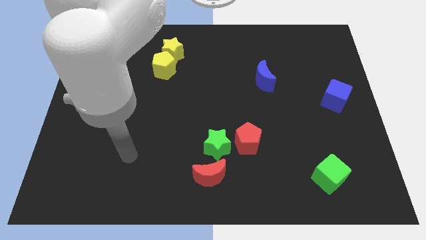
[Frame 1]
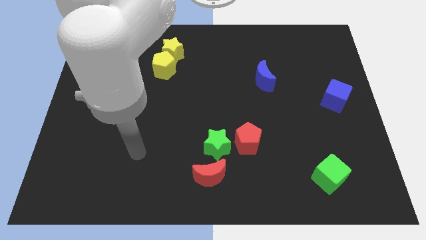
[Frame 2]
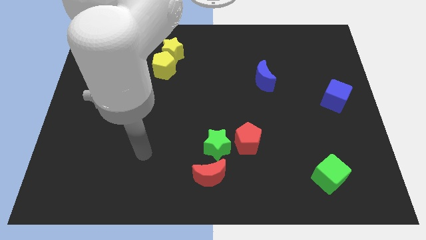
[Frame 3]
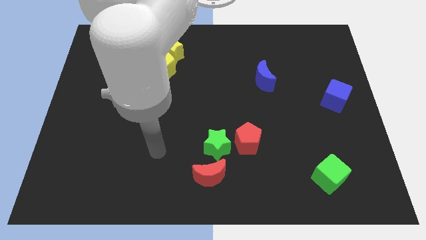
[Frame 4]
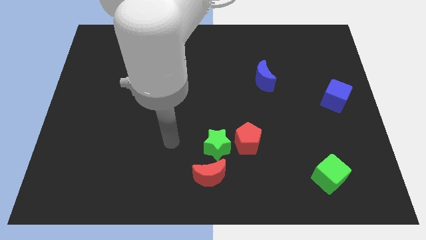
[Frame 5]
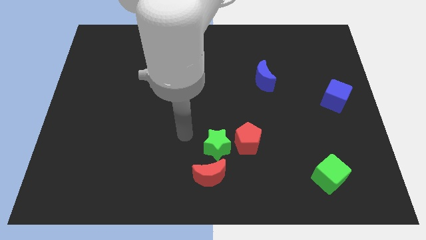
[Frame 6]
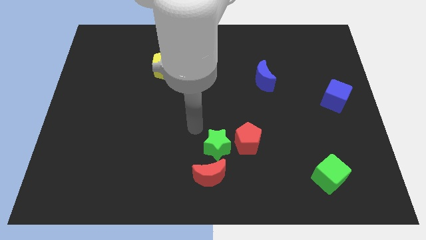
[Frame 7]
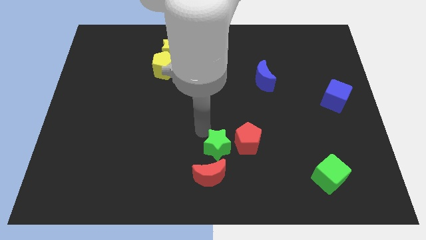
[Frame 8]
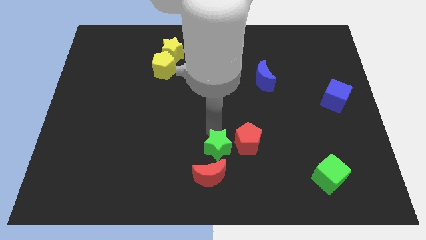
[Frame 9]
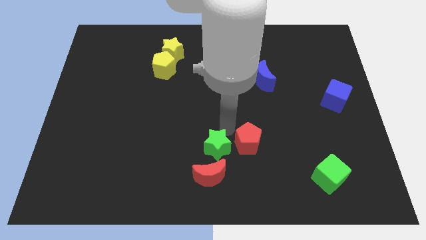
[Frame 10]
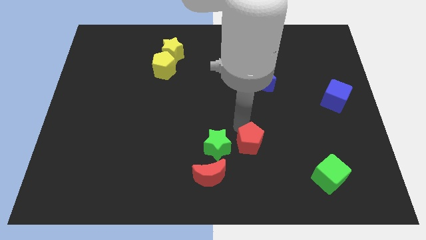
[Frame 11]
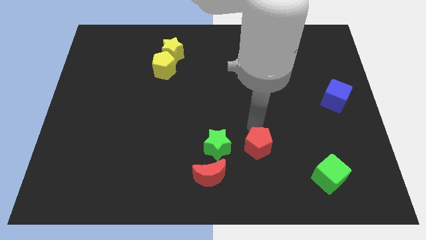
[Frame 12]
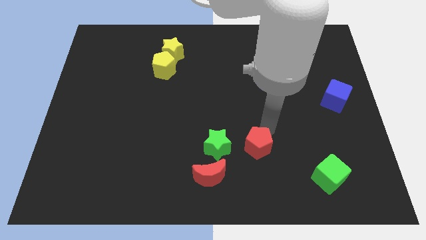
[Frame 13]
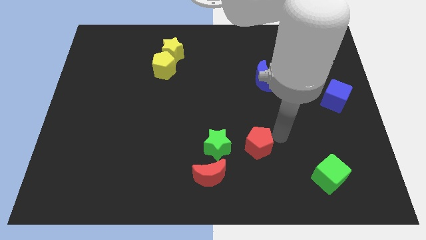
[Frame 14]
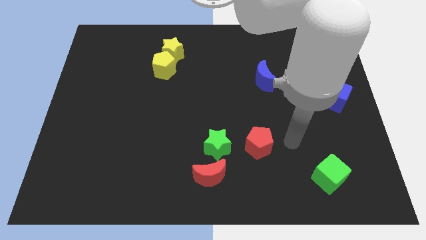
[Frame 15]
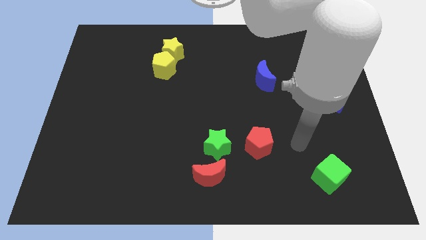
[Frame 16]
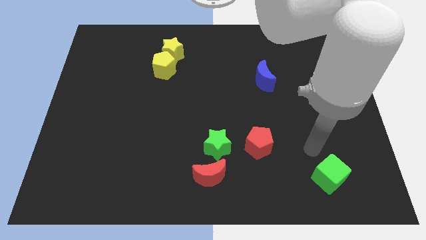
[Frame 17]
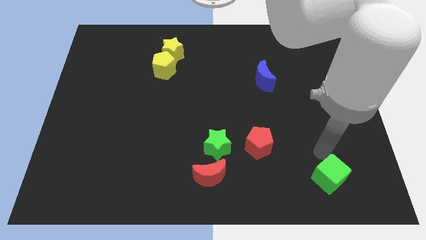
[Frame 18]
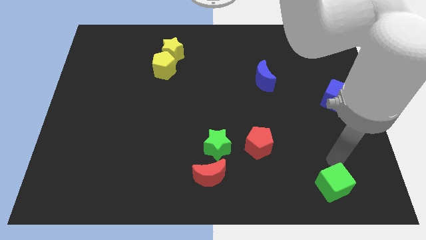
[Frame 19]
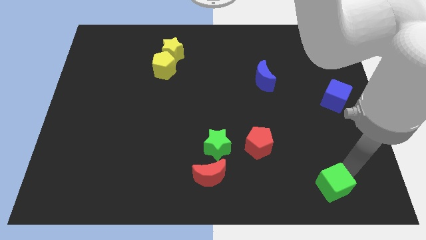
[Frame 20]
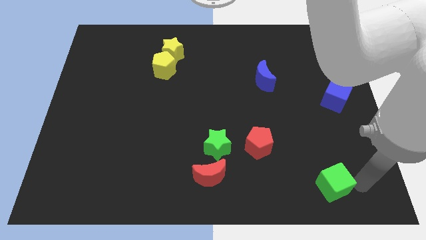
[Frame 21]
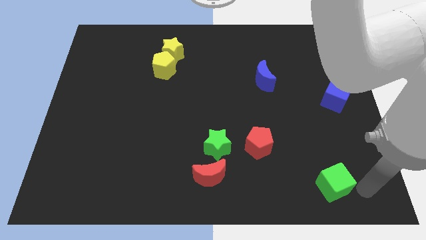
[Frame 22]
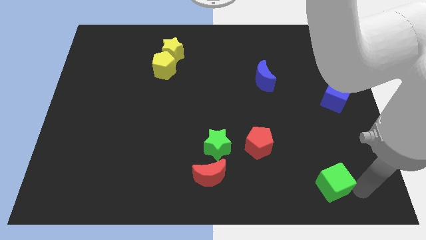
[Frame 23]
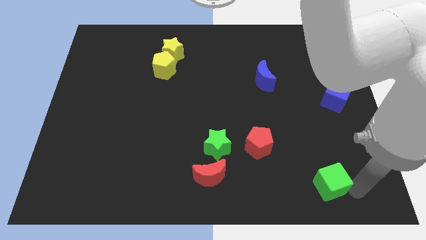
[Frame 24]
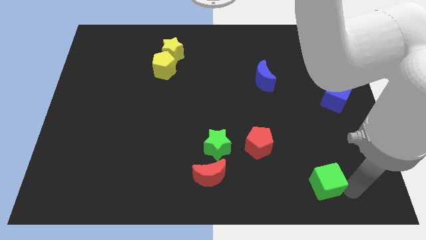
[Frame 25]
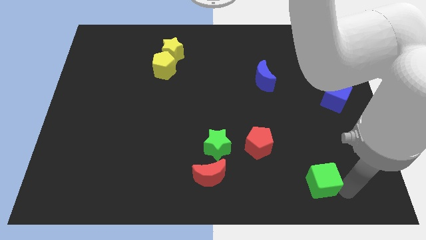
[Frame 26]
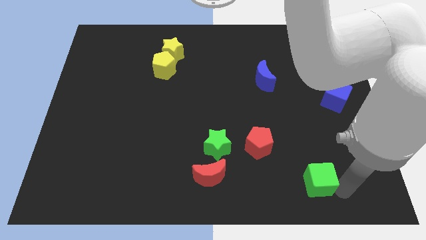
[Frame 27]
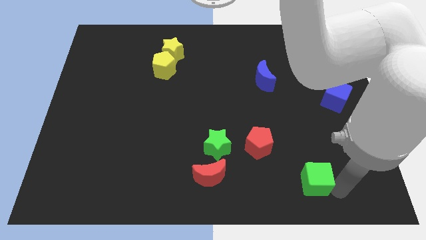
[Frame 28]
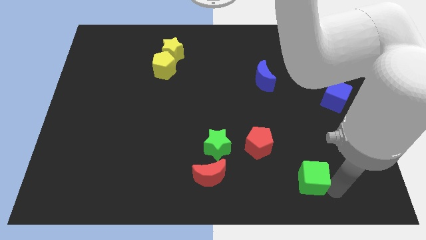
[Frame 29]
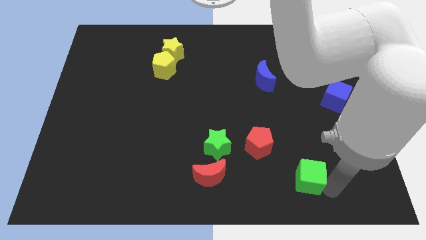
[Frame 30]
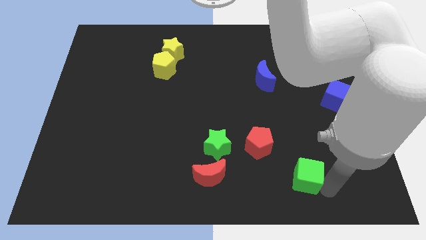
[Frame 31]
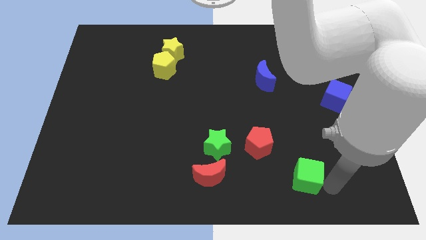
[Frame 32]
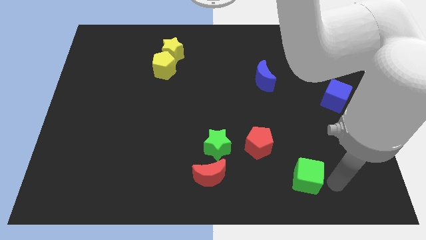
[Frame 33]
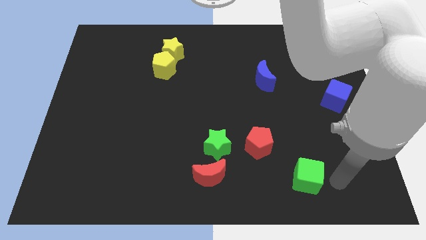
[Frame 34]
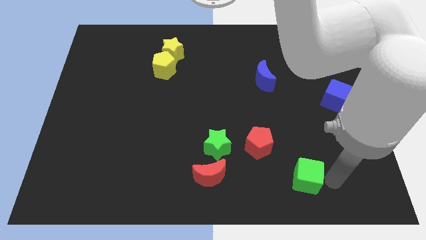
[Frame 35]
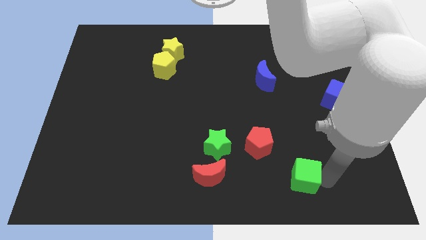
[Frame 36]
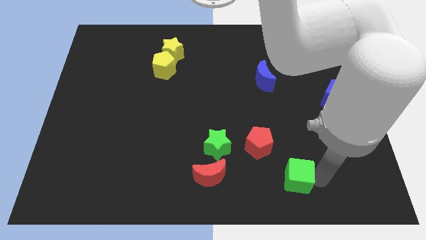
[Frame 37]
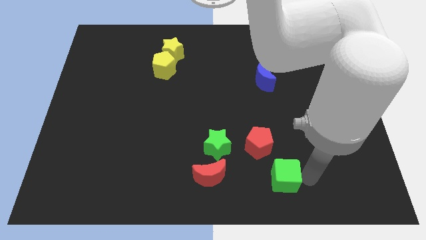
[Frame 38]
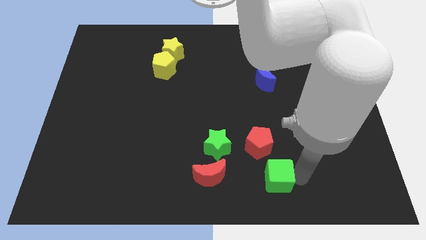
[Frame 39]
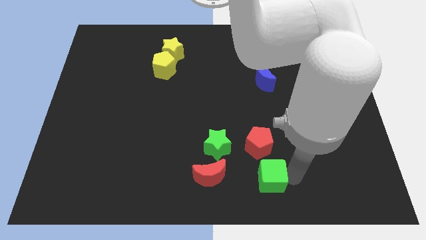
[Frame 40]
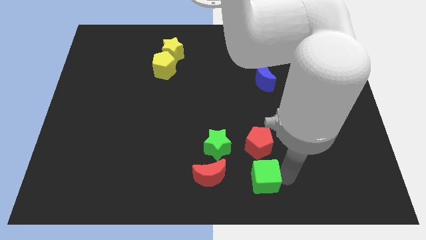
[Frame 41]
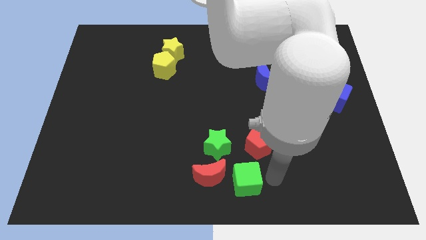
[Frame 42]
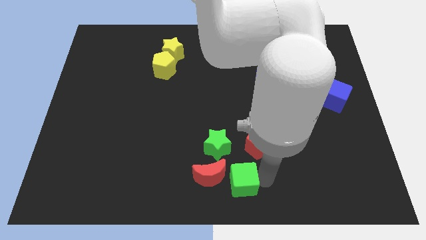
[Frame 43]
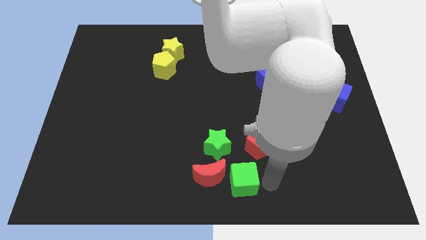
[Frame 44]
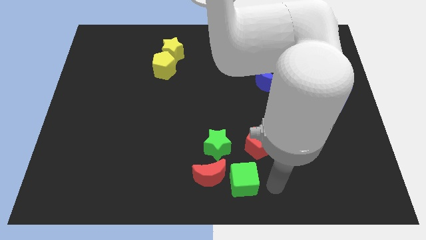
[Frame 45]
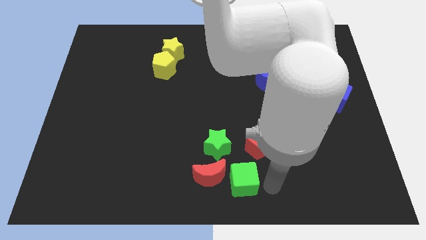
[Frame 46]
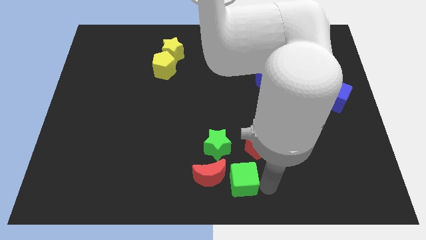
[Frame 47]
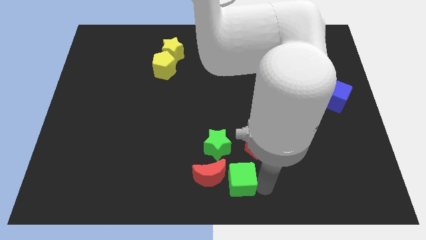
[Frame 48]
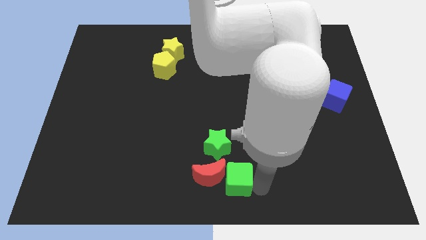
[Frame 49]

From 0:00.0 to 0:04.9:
slide the green cube to the red moon

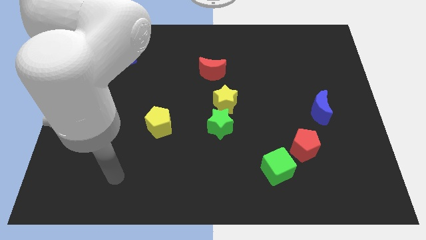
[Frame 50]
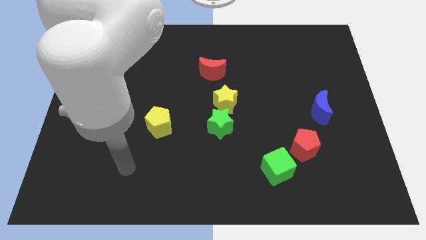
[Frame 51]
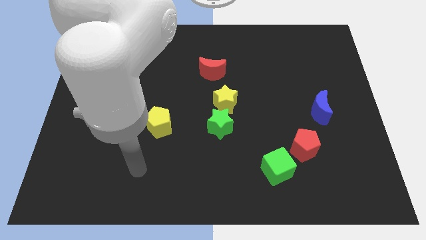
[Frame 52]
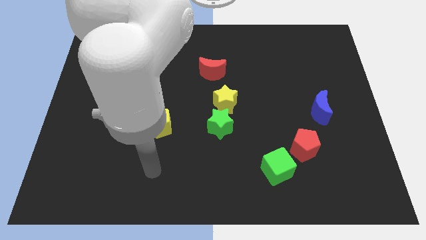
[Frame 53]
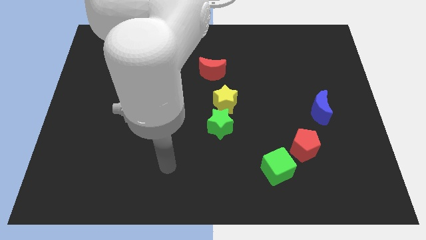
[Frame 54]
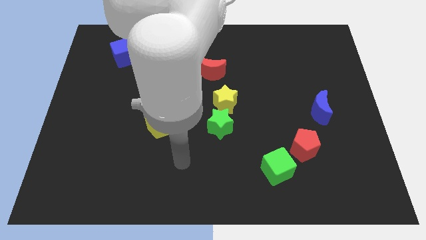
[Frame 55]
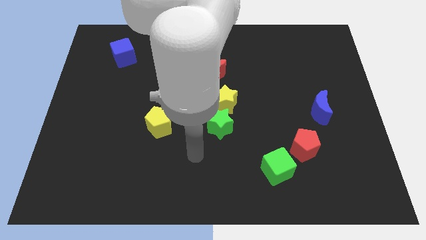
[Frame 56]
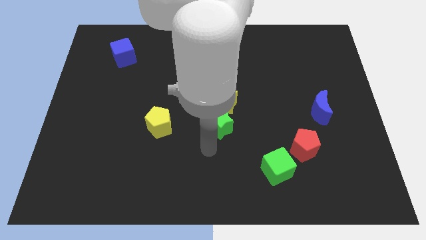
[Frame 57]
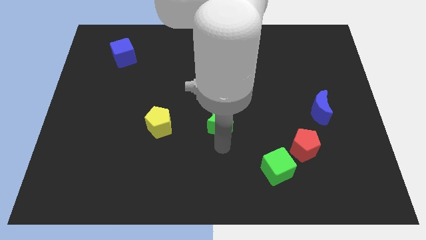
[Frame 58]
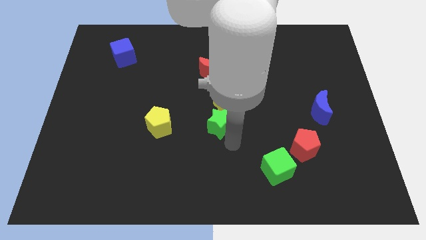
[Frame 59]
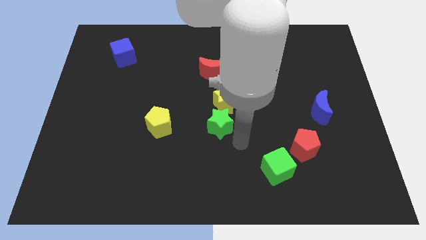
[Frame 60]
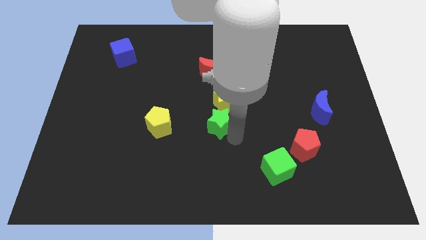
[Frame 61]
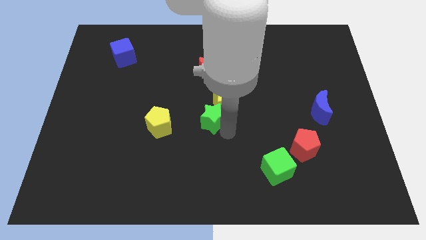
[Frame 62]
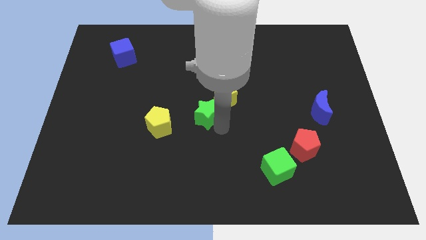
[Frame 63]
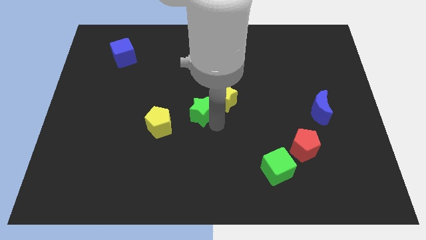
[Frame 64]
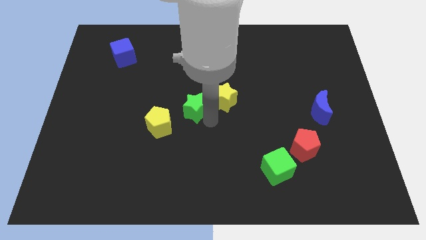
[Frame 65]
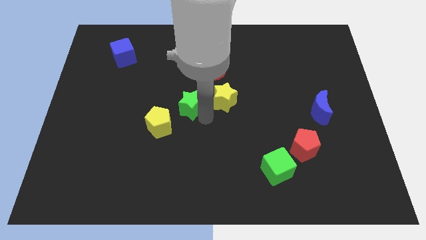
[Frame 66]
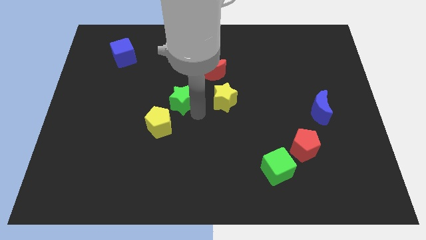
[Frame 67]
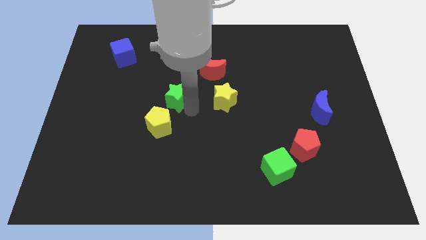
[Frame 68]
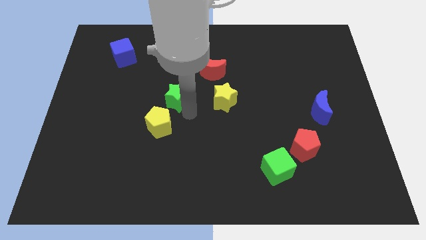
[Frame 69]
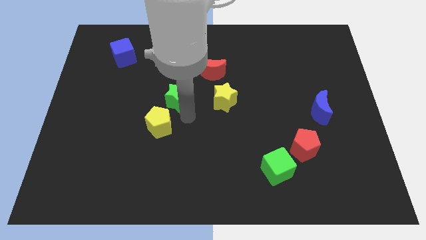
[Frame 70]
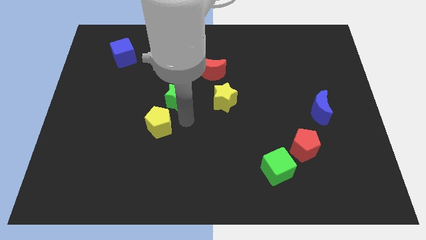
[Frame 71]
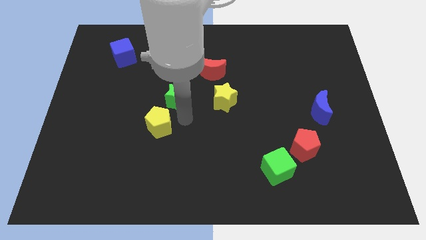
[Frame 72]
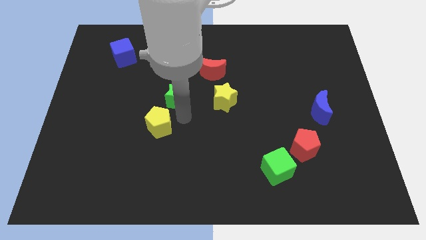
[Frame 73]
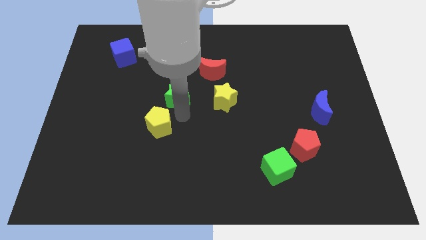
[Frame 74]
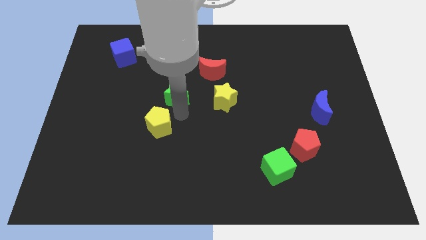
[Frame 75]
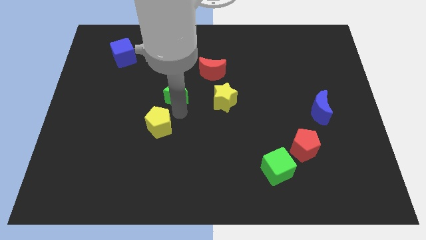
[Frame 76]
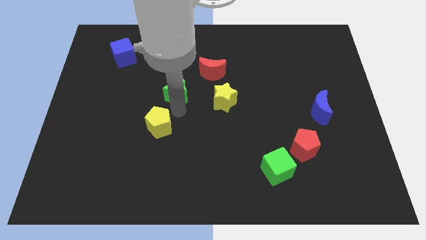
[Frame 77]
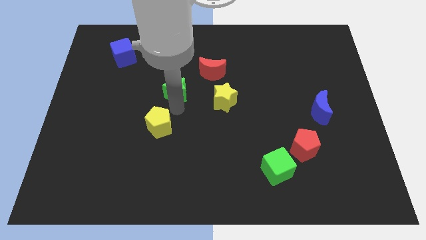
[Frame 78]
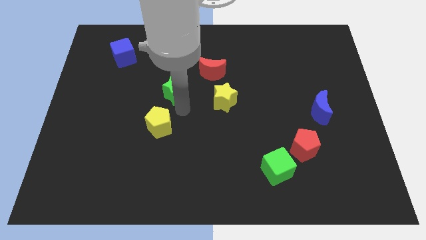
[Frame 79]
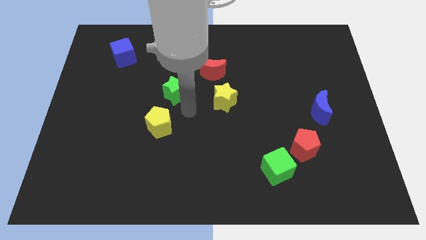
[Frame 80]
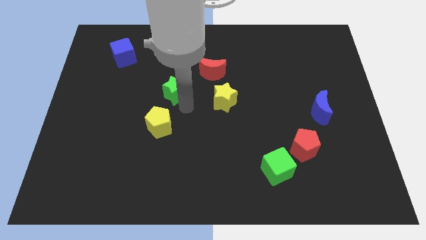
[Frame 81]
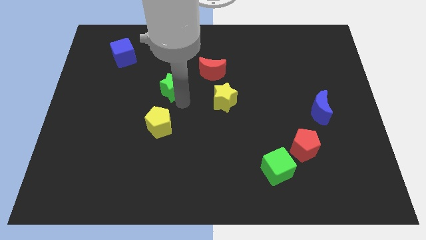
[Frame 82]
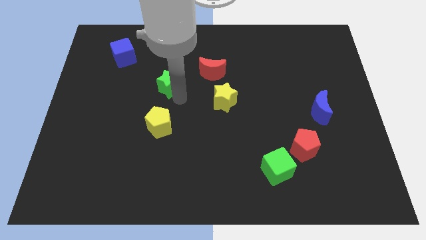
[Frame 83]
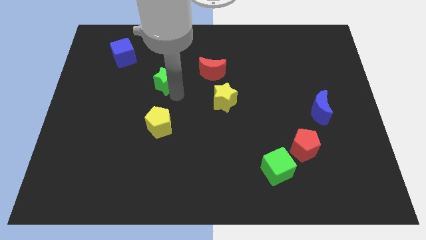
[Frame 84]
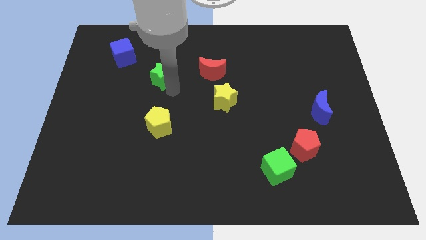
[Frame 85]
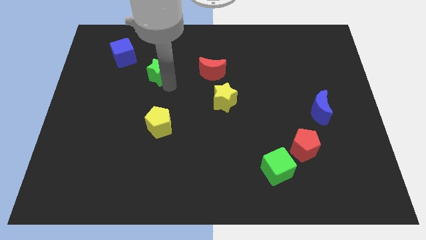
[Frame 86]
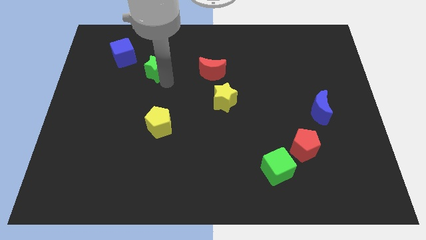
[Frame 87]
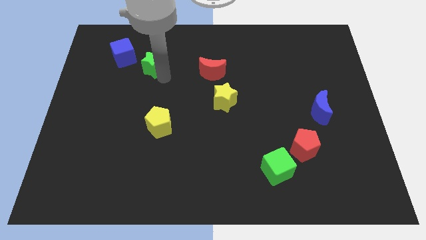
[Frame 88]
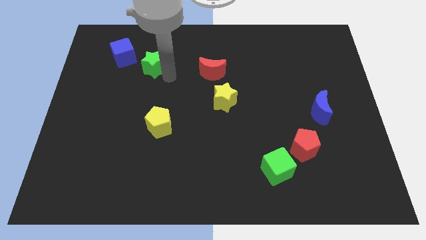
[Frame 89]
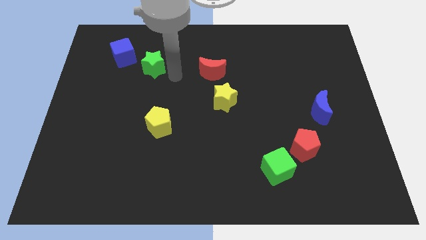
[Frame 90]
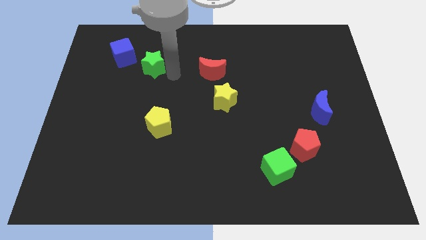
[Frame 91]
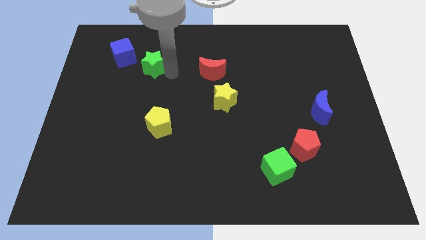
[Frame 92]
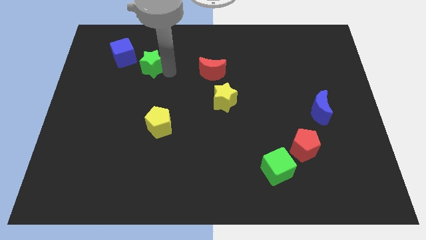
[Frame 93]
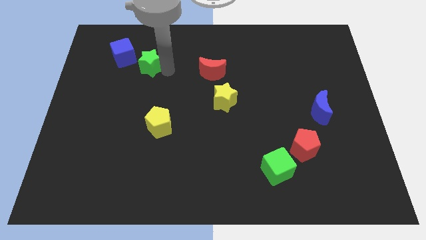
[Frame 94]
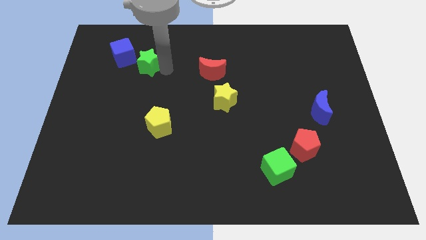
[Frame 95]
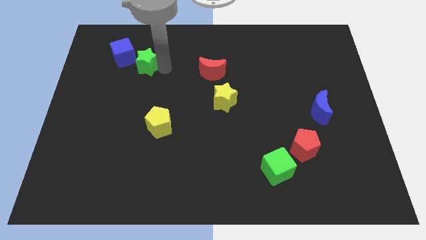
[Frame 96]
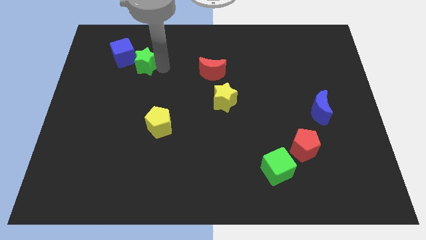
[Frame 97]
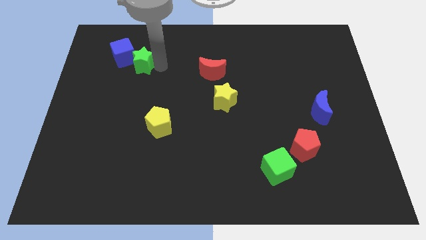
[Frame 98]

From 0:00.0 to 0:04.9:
push the green star next to the blue cube
